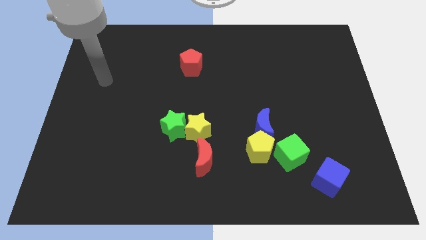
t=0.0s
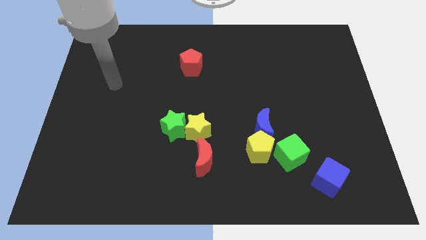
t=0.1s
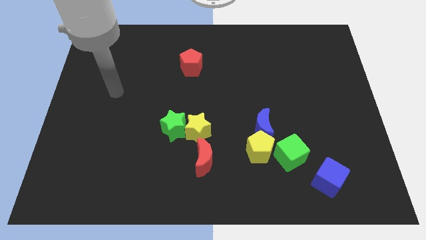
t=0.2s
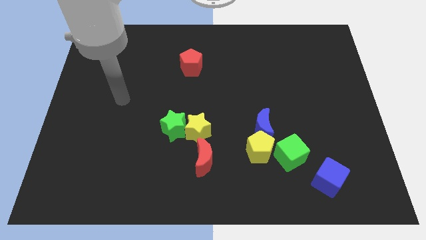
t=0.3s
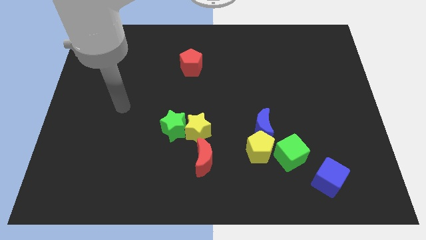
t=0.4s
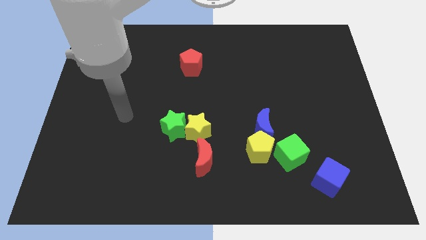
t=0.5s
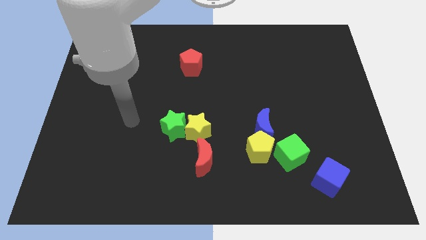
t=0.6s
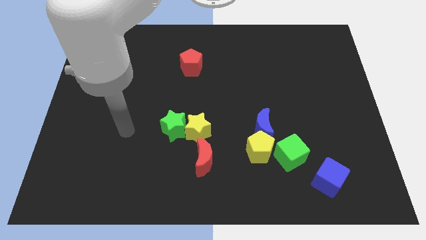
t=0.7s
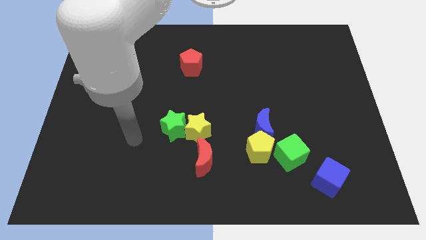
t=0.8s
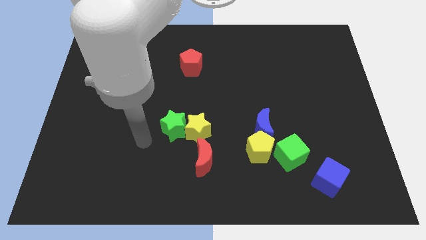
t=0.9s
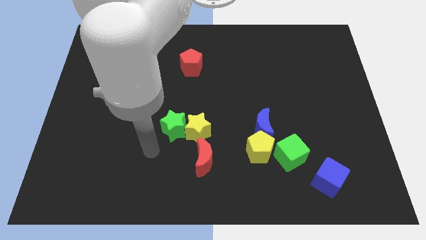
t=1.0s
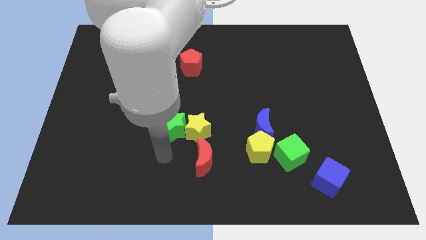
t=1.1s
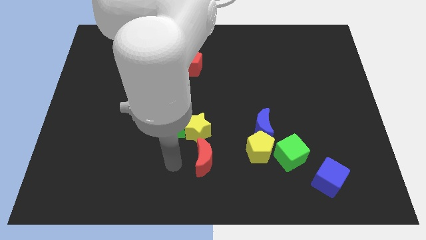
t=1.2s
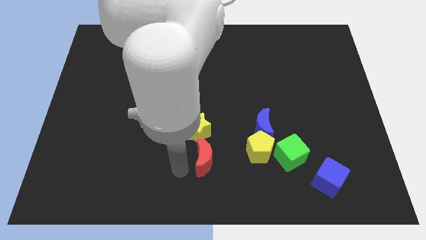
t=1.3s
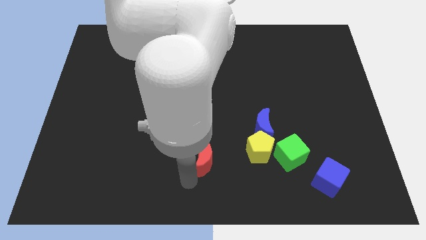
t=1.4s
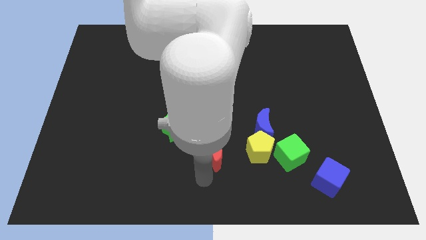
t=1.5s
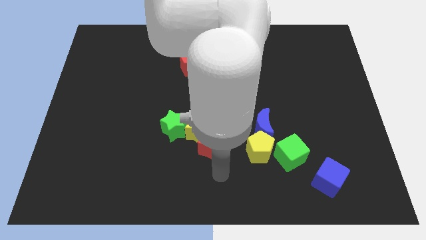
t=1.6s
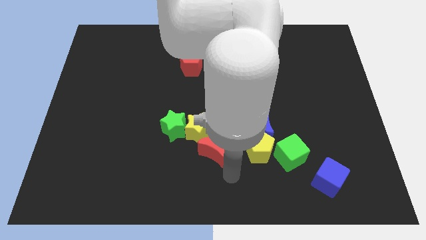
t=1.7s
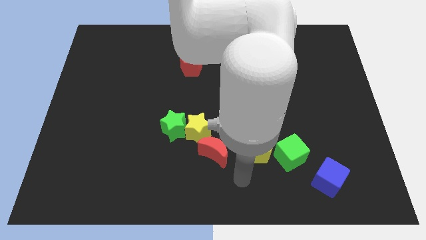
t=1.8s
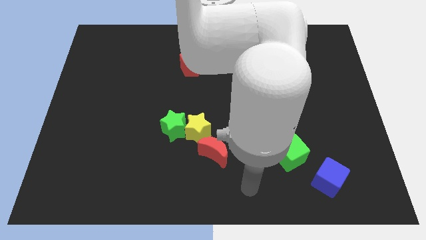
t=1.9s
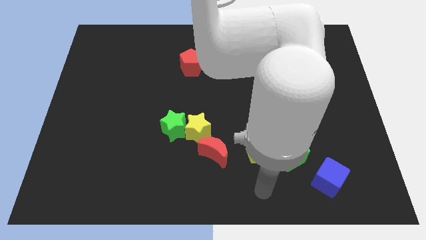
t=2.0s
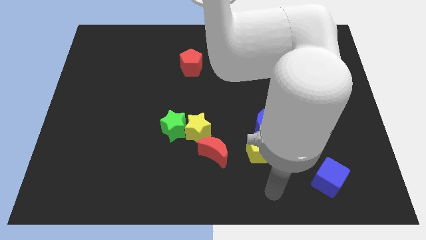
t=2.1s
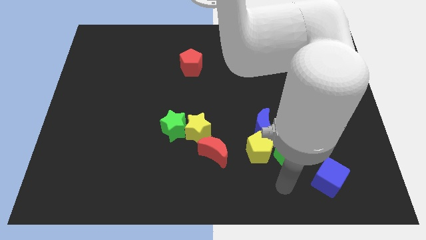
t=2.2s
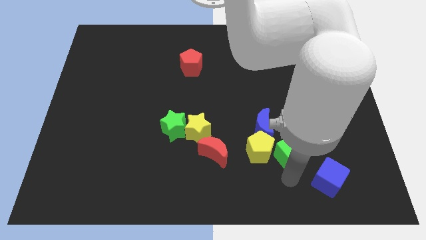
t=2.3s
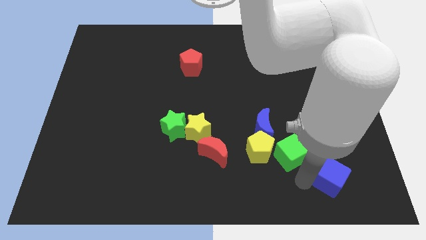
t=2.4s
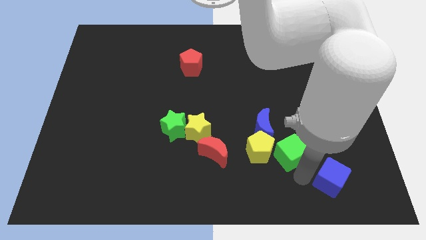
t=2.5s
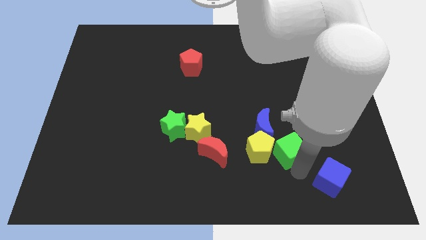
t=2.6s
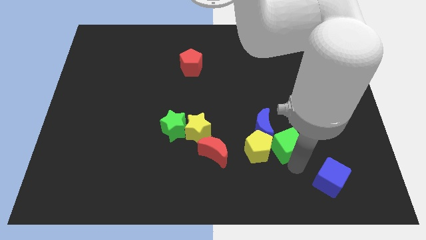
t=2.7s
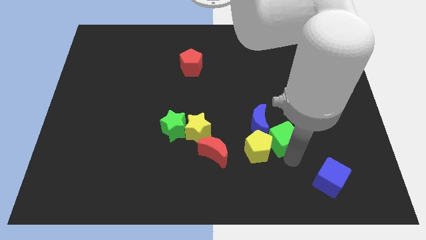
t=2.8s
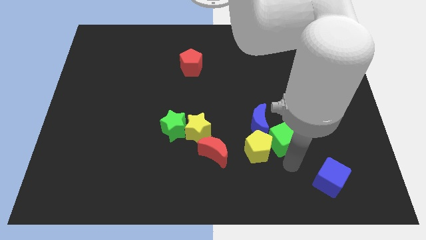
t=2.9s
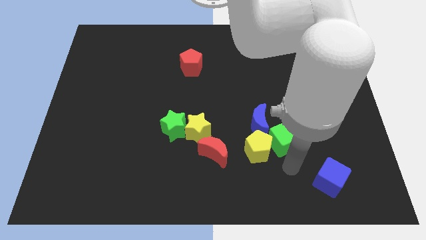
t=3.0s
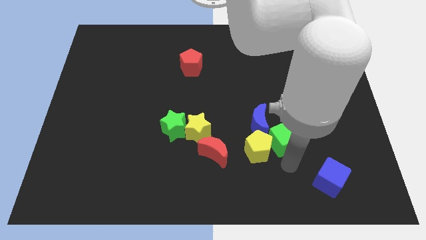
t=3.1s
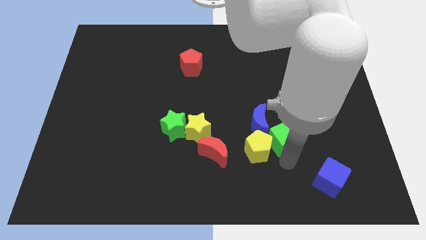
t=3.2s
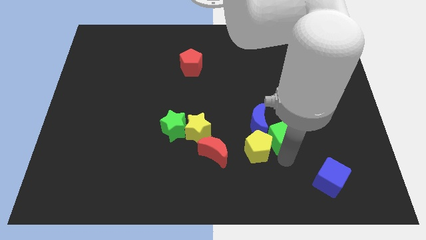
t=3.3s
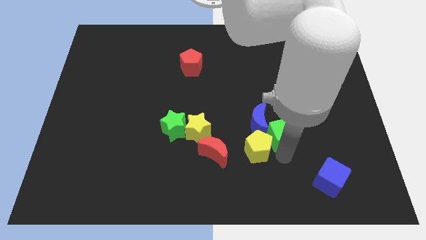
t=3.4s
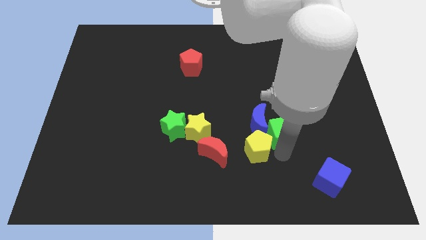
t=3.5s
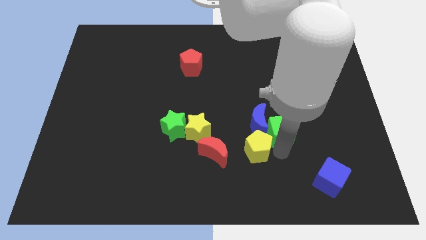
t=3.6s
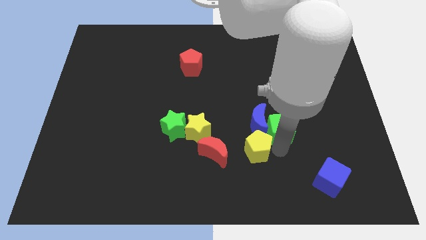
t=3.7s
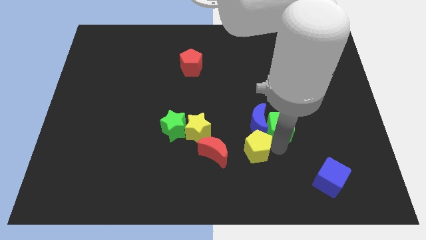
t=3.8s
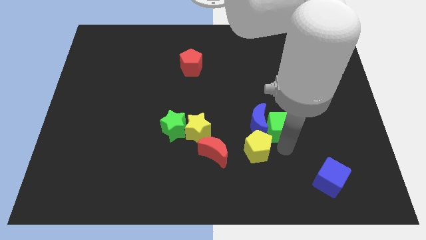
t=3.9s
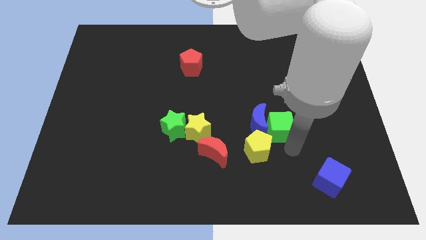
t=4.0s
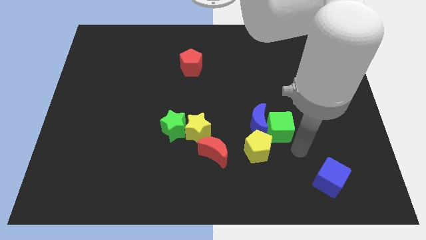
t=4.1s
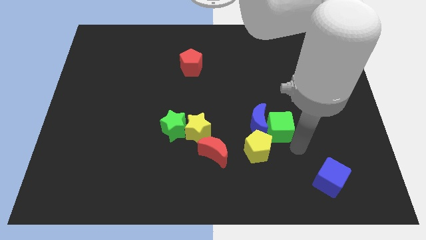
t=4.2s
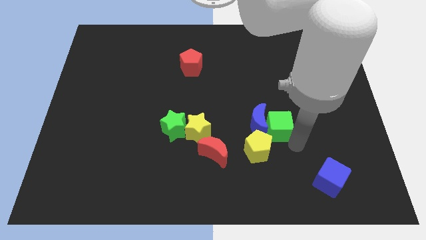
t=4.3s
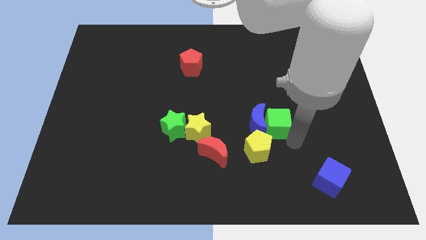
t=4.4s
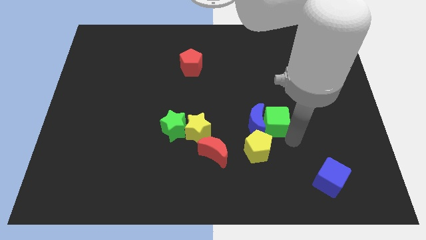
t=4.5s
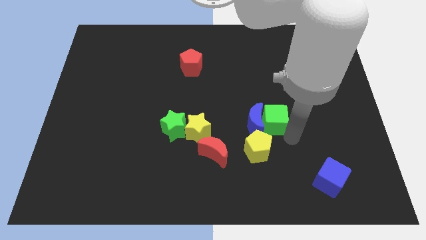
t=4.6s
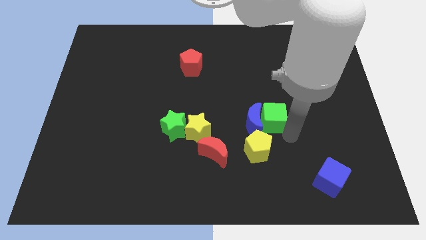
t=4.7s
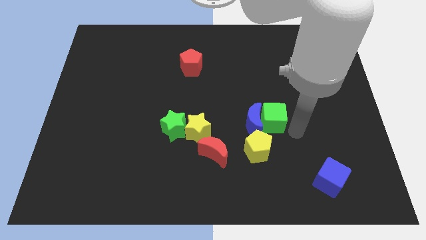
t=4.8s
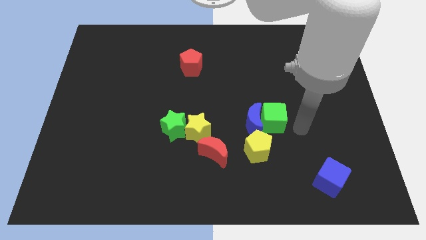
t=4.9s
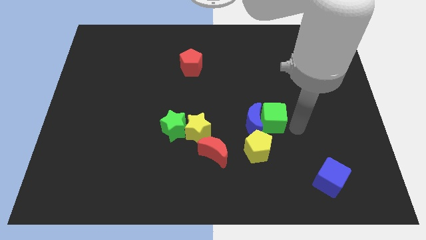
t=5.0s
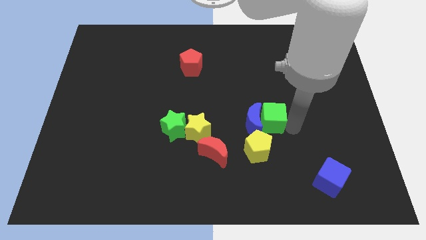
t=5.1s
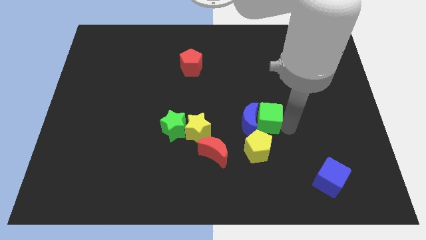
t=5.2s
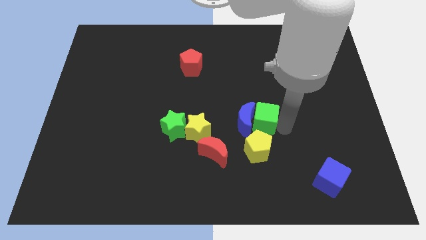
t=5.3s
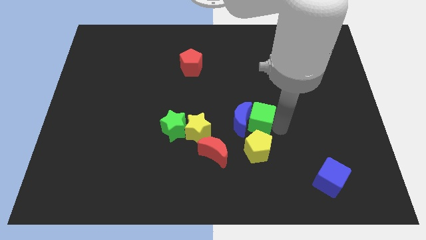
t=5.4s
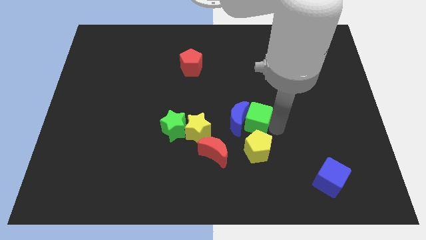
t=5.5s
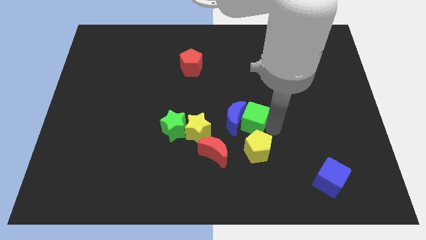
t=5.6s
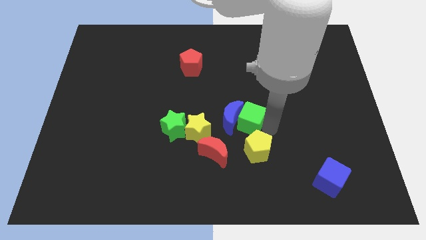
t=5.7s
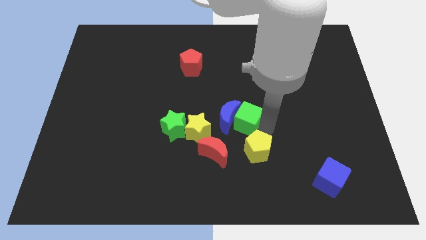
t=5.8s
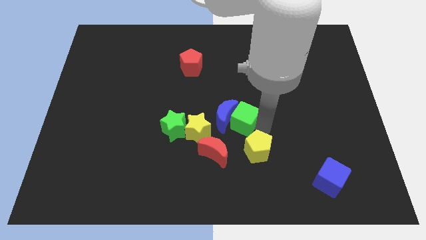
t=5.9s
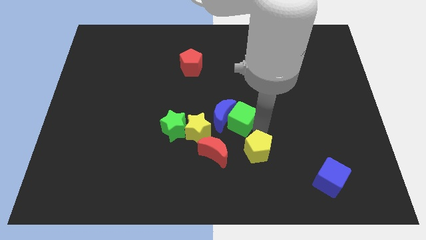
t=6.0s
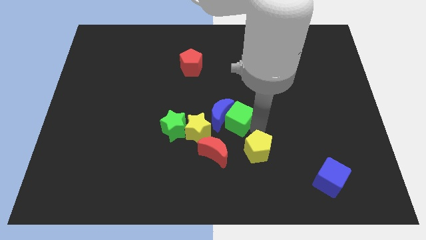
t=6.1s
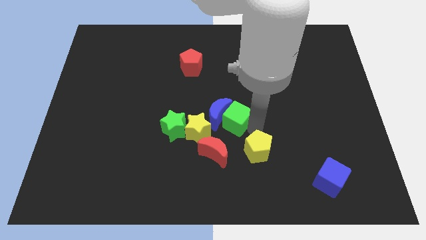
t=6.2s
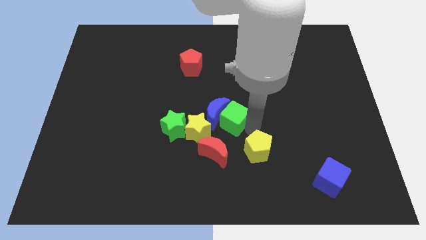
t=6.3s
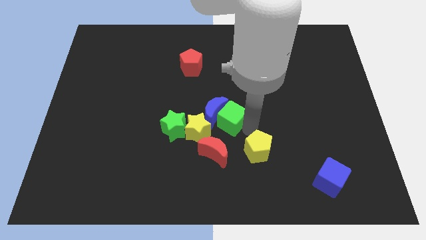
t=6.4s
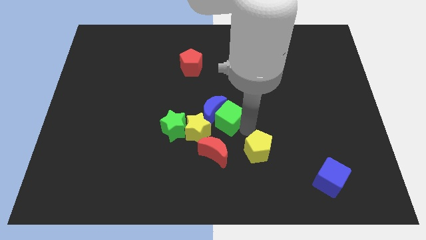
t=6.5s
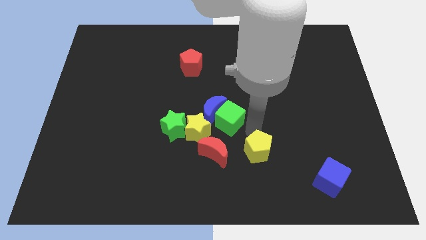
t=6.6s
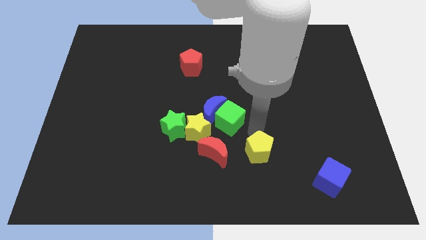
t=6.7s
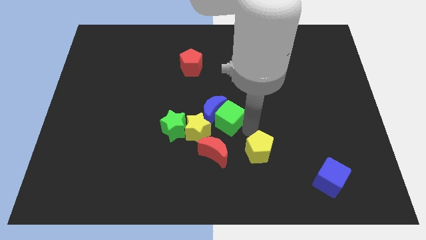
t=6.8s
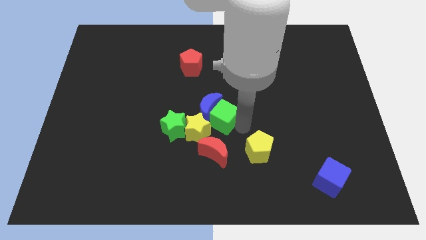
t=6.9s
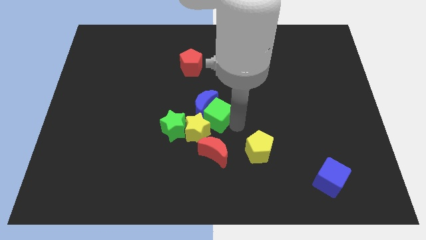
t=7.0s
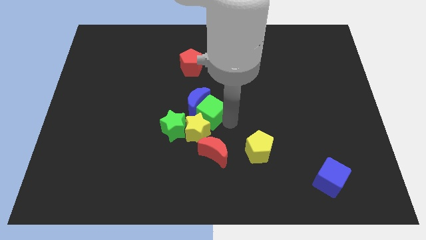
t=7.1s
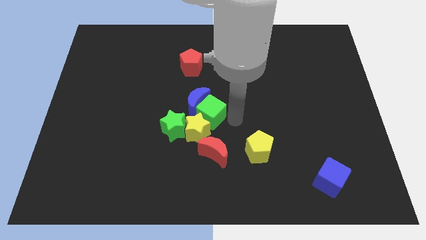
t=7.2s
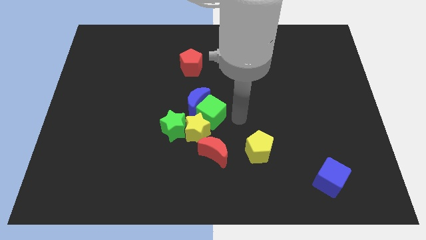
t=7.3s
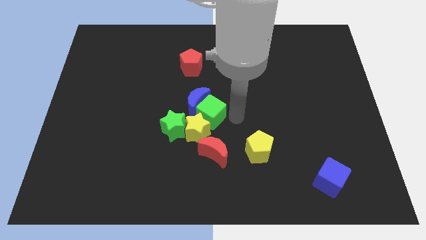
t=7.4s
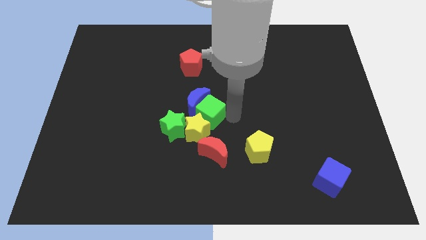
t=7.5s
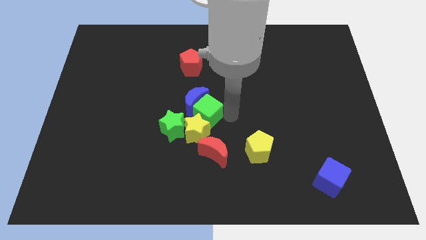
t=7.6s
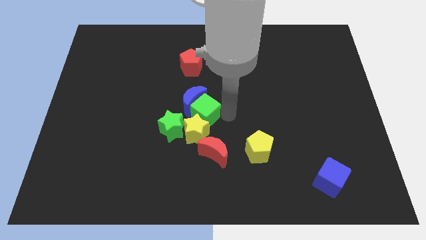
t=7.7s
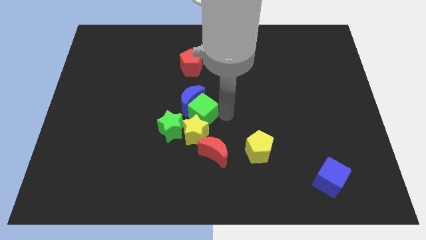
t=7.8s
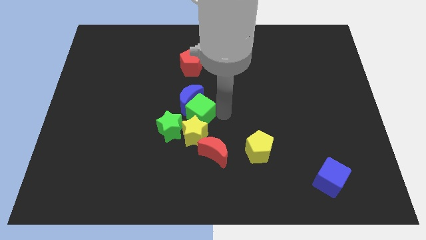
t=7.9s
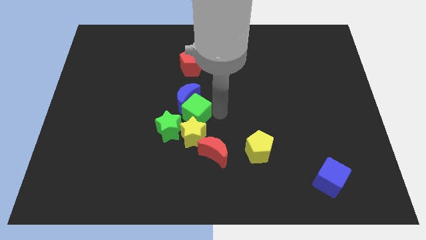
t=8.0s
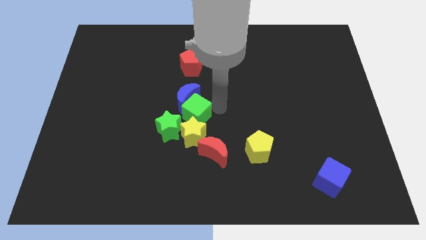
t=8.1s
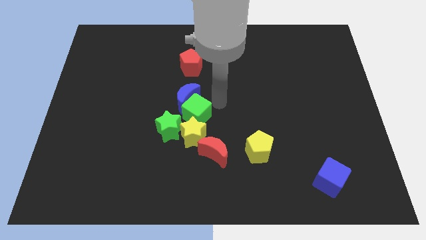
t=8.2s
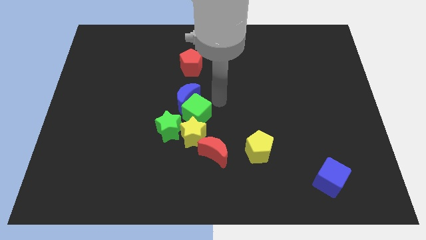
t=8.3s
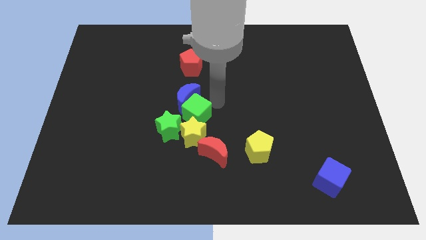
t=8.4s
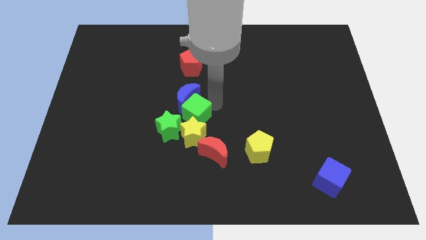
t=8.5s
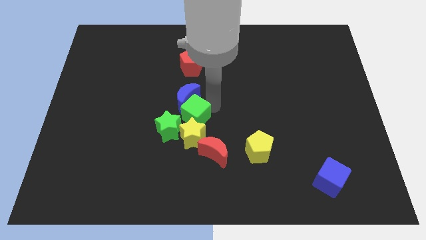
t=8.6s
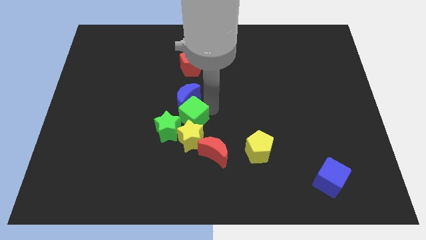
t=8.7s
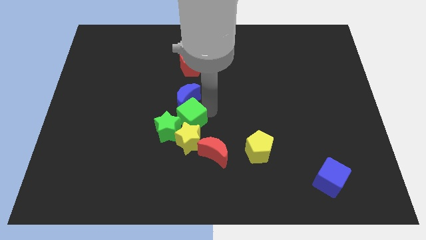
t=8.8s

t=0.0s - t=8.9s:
push the green cube to the green star
